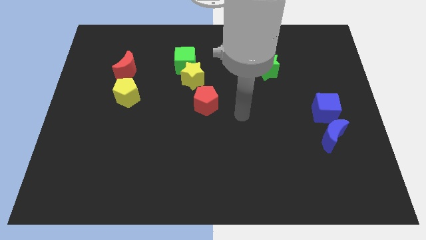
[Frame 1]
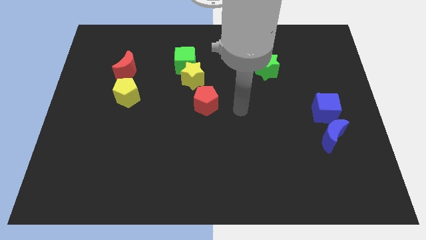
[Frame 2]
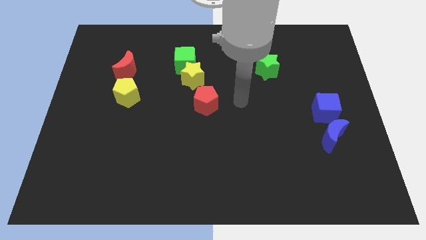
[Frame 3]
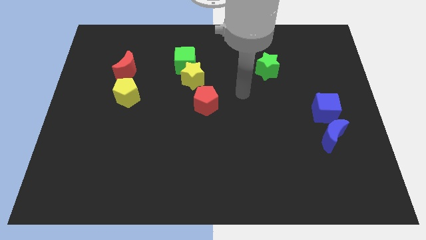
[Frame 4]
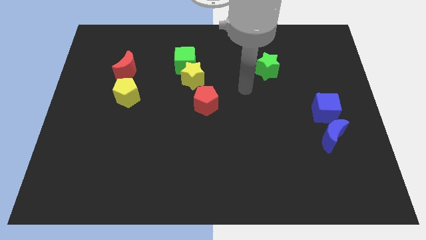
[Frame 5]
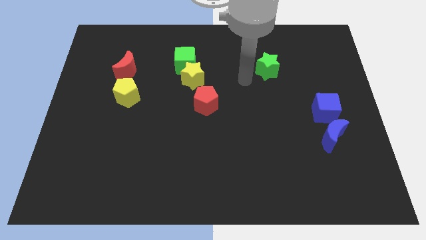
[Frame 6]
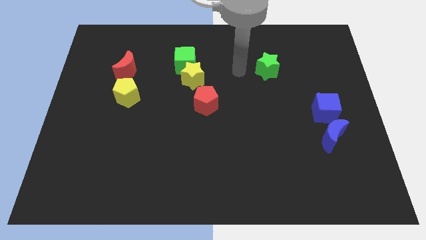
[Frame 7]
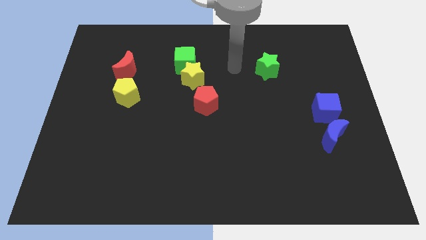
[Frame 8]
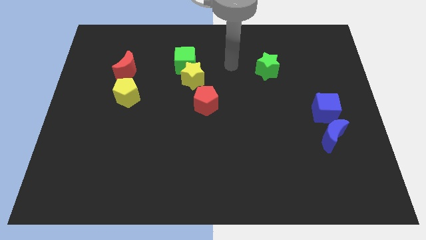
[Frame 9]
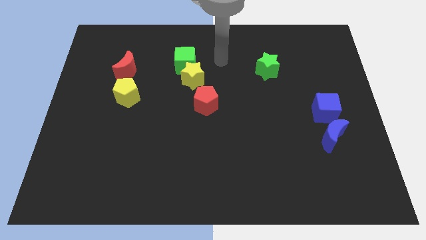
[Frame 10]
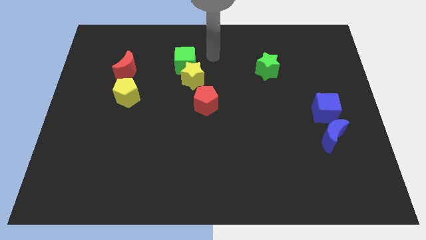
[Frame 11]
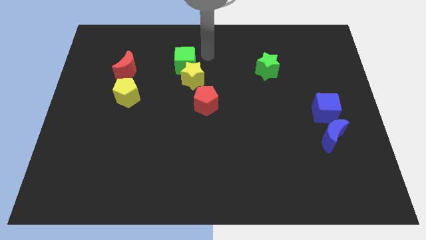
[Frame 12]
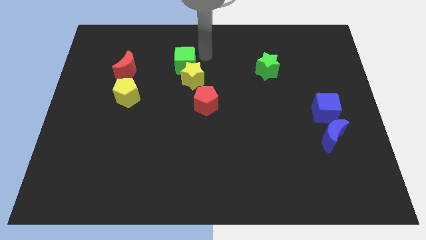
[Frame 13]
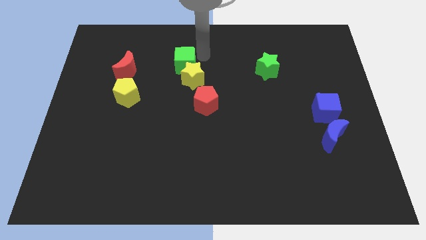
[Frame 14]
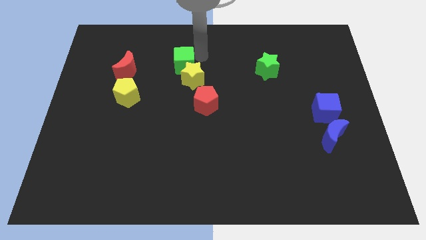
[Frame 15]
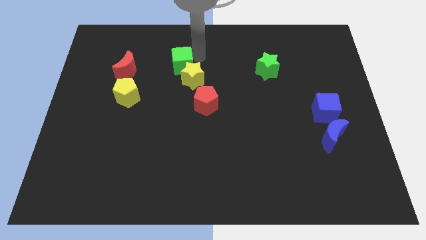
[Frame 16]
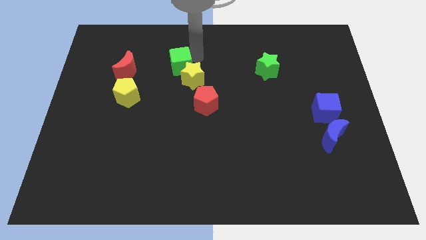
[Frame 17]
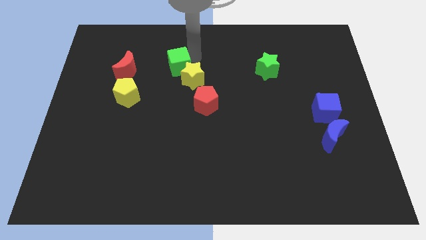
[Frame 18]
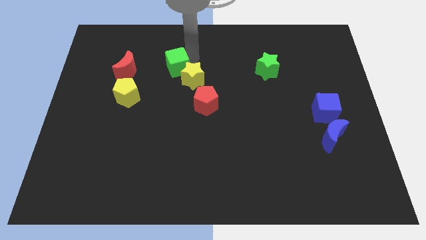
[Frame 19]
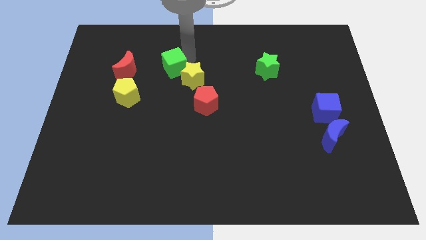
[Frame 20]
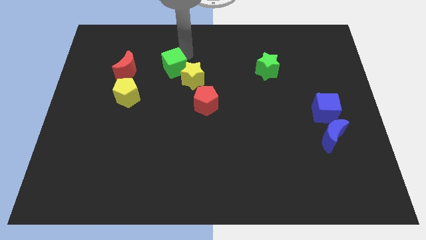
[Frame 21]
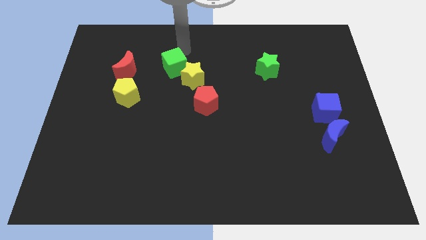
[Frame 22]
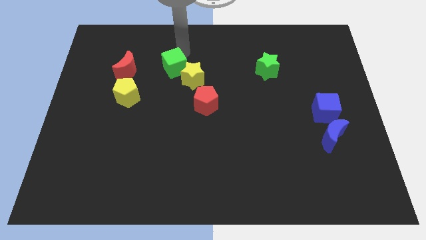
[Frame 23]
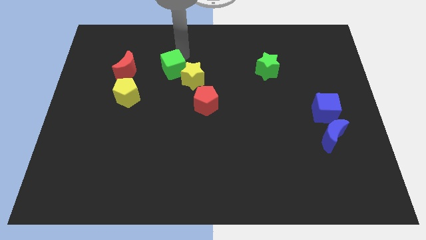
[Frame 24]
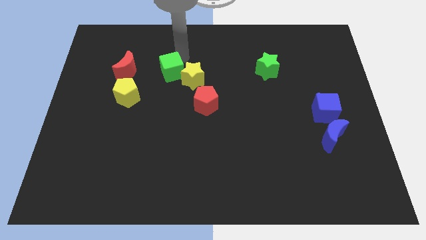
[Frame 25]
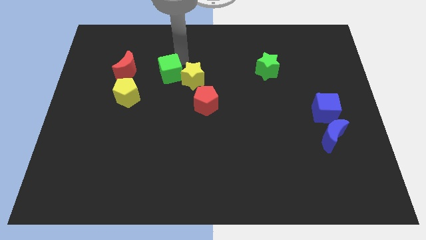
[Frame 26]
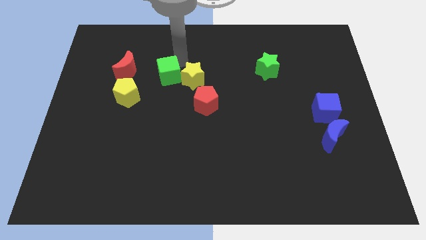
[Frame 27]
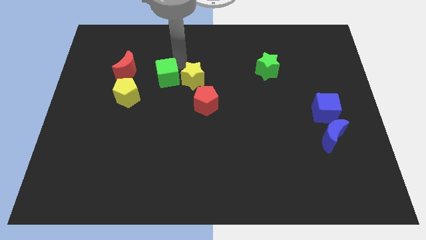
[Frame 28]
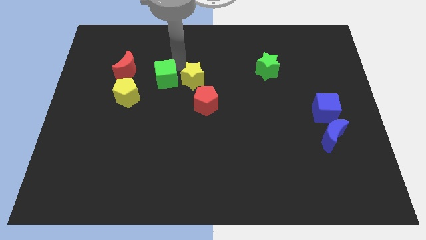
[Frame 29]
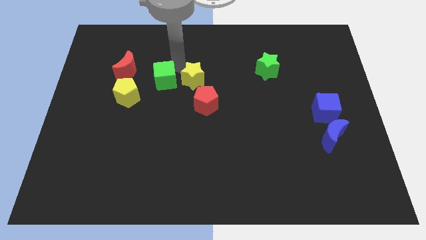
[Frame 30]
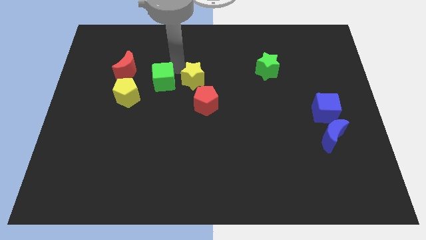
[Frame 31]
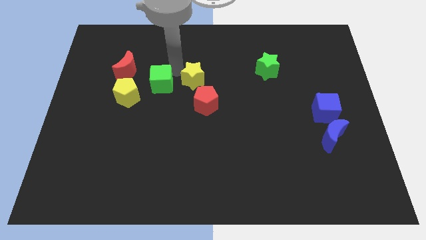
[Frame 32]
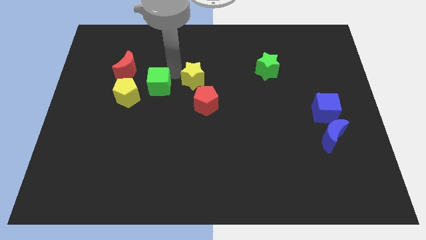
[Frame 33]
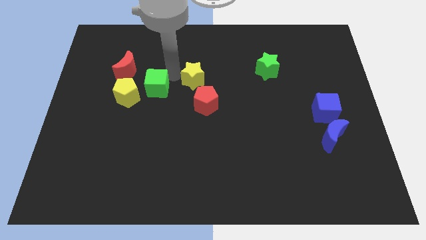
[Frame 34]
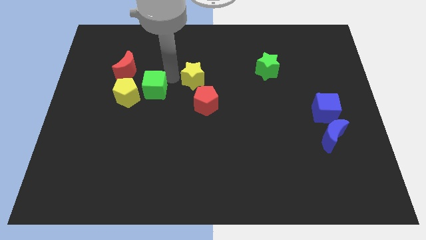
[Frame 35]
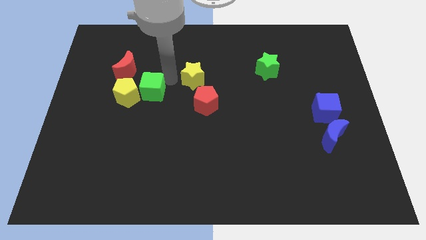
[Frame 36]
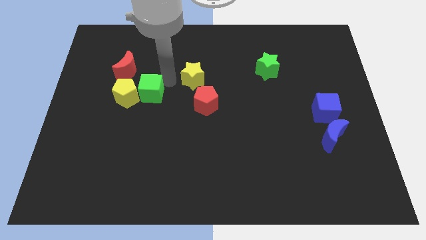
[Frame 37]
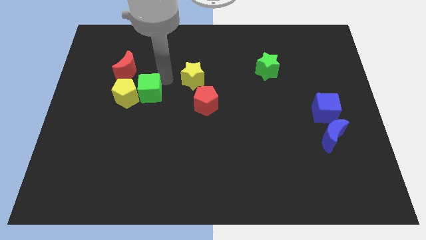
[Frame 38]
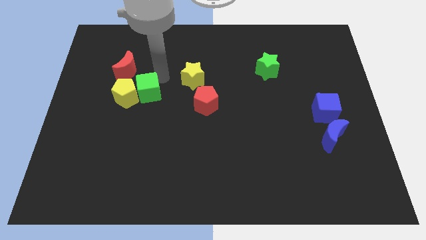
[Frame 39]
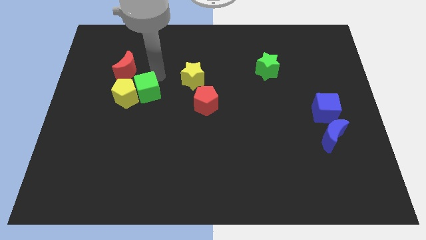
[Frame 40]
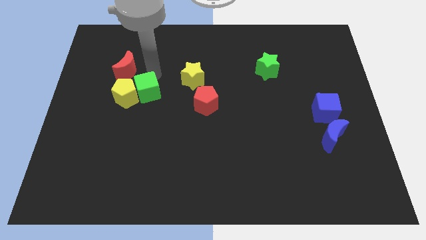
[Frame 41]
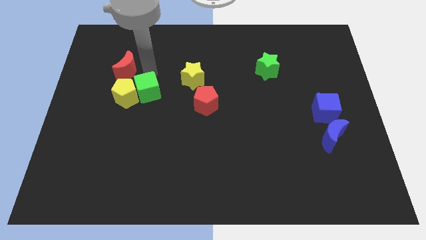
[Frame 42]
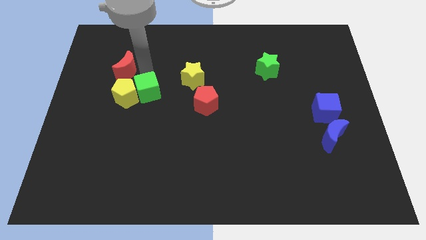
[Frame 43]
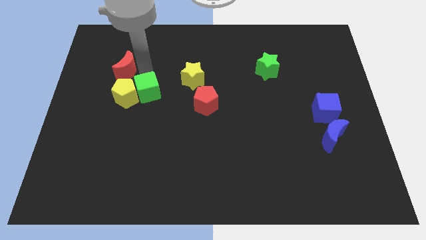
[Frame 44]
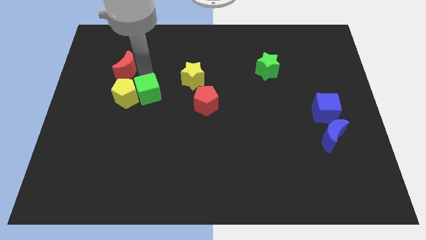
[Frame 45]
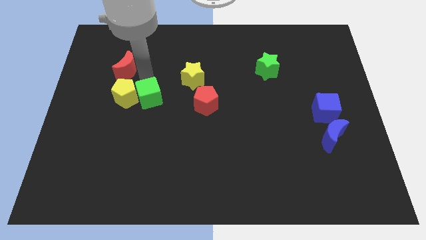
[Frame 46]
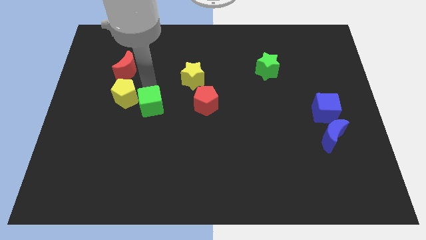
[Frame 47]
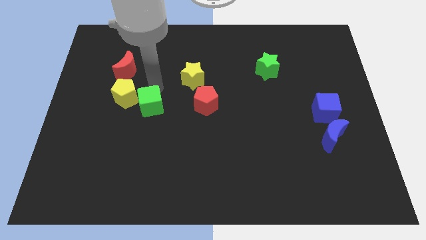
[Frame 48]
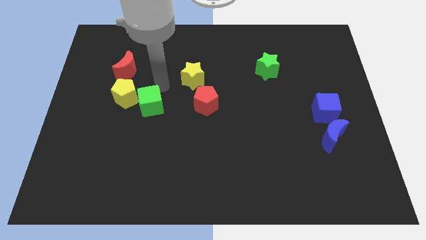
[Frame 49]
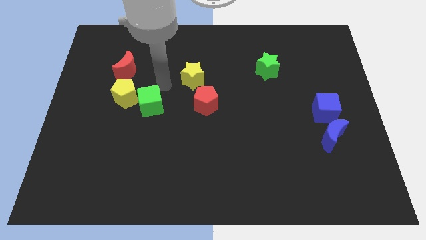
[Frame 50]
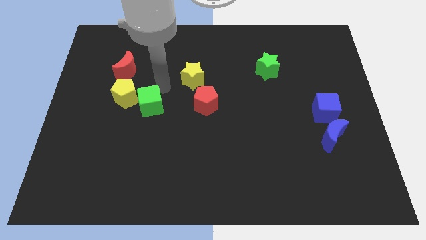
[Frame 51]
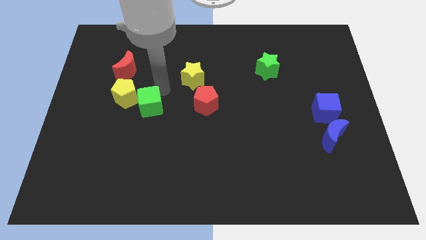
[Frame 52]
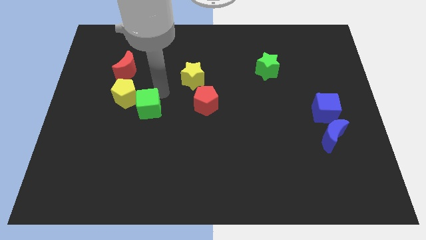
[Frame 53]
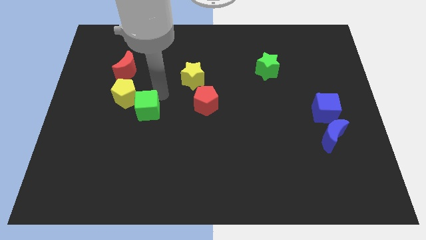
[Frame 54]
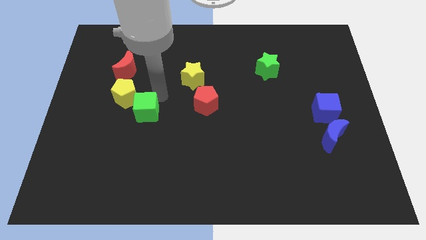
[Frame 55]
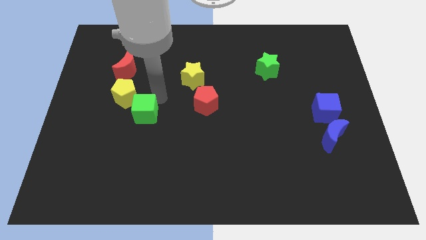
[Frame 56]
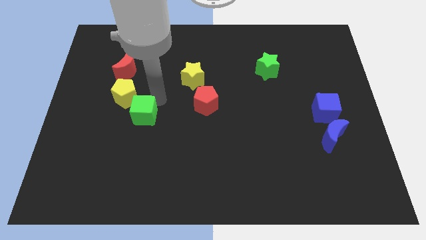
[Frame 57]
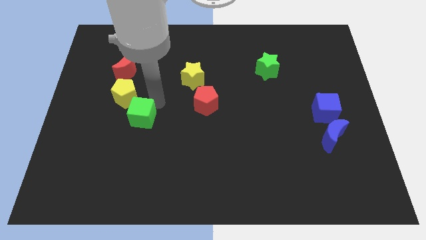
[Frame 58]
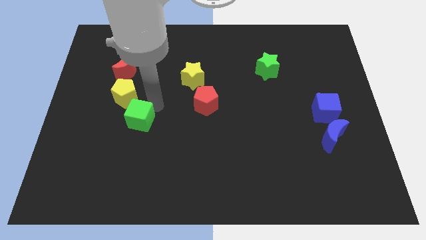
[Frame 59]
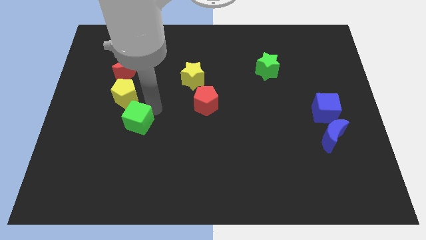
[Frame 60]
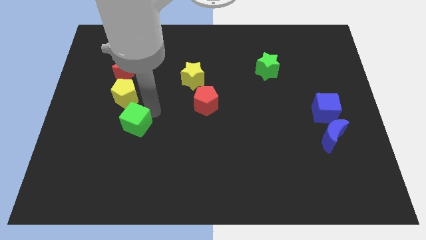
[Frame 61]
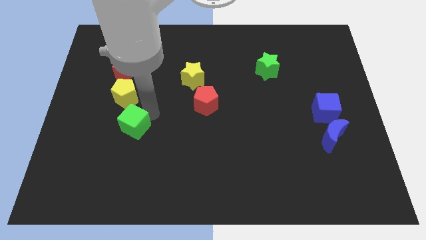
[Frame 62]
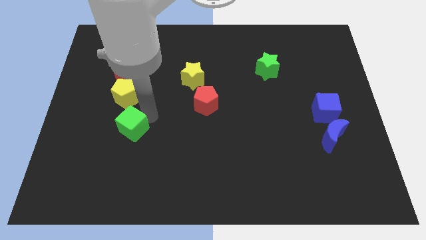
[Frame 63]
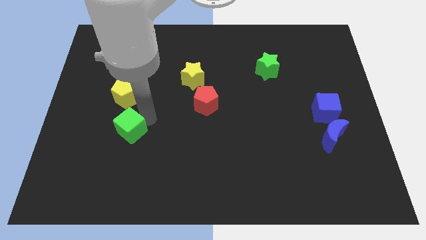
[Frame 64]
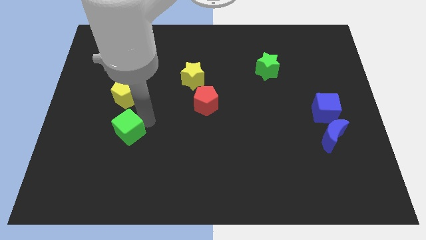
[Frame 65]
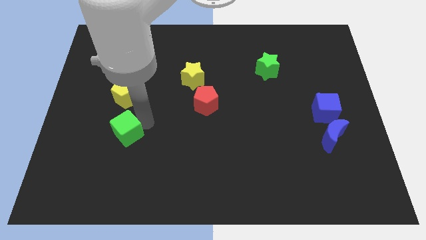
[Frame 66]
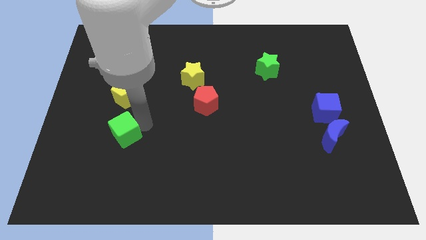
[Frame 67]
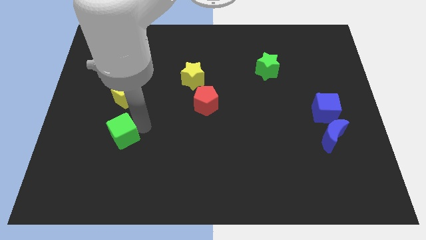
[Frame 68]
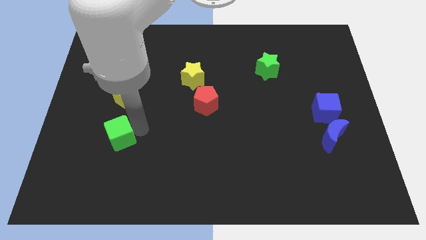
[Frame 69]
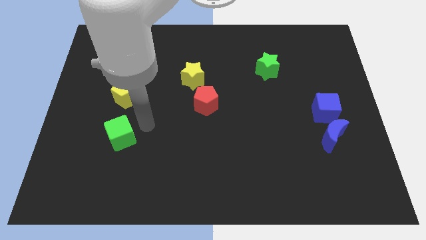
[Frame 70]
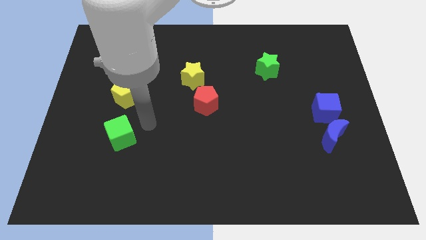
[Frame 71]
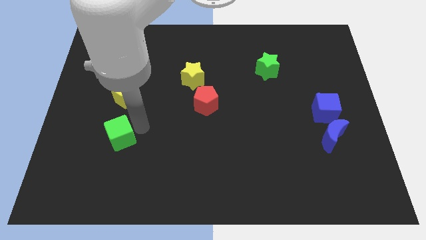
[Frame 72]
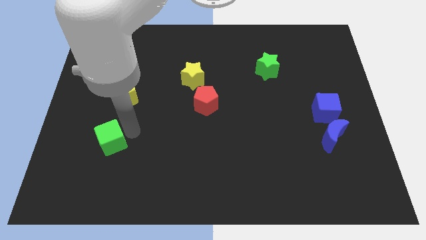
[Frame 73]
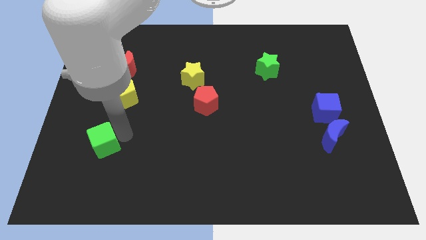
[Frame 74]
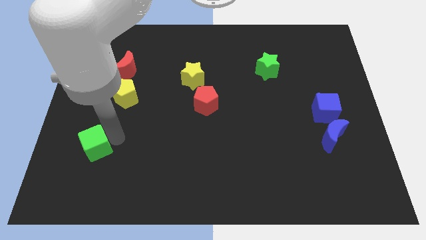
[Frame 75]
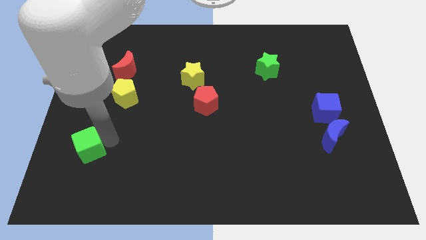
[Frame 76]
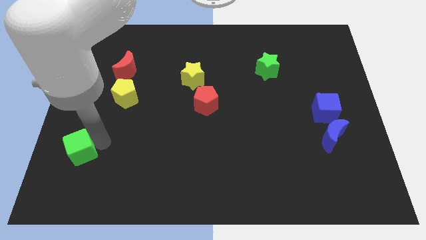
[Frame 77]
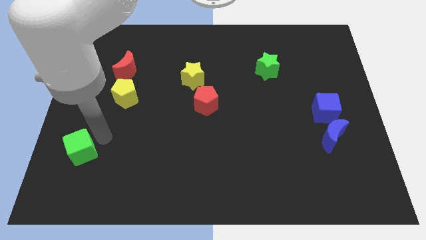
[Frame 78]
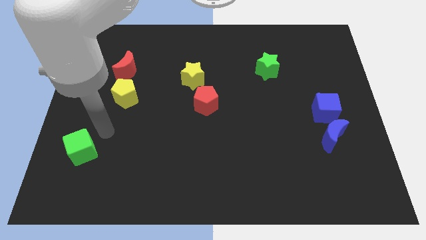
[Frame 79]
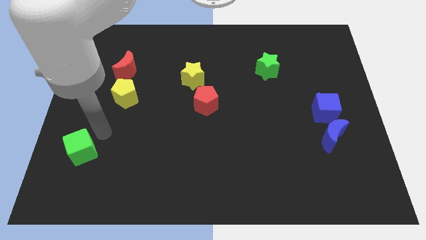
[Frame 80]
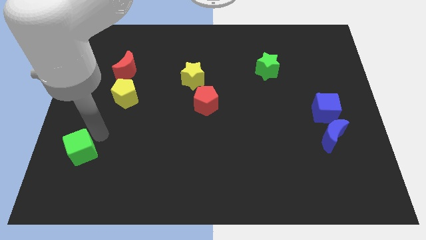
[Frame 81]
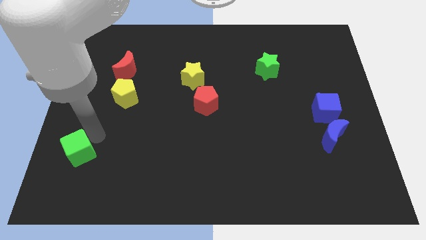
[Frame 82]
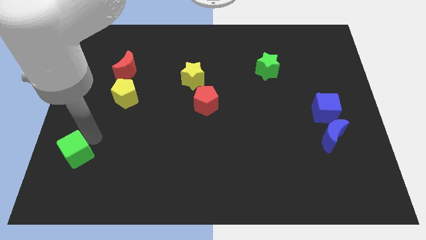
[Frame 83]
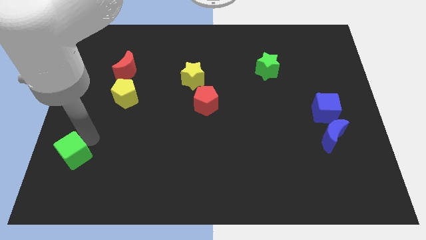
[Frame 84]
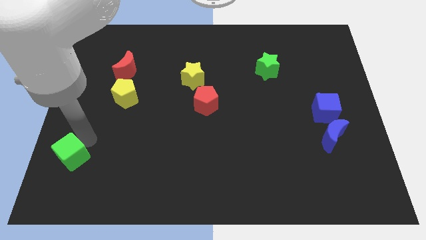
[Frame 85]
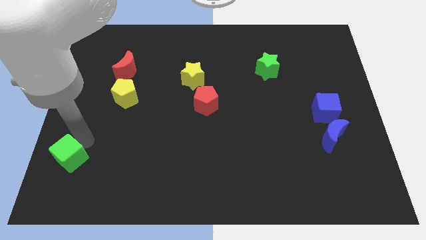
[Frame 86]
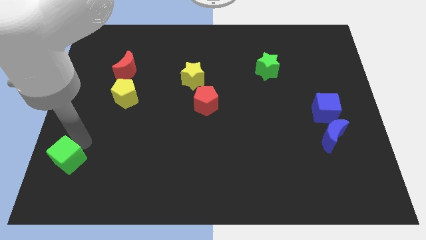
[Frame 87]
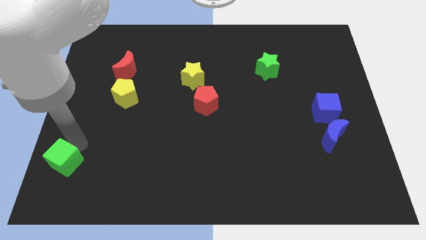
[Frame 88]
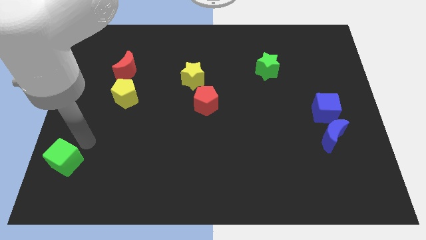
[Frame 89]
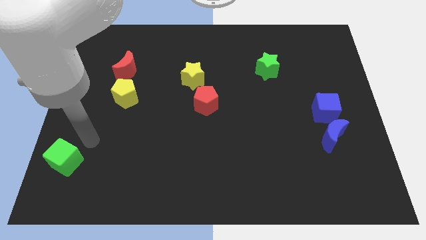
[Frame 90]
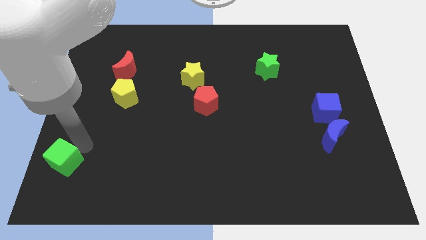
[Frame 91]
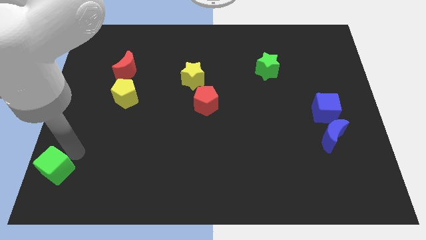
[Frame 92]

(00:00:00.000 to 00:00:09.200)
move the green cube to the bottom left of the board
